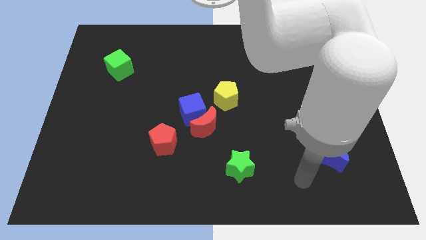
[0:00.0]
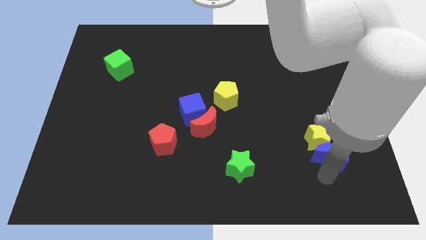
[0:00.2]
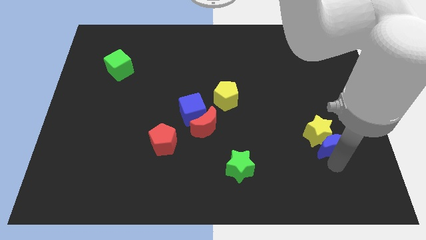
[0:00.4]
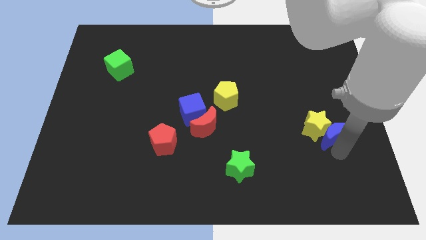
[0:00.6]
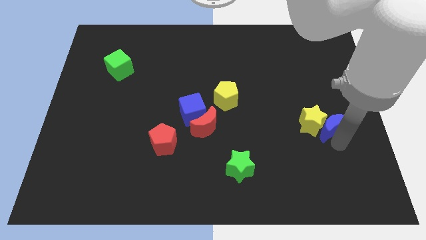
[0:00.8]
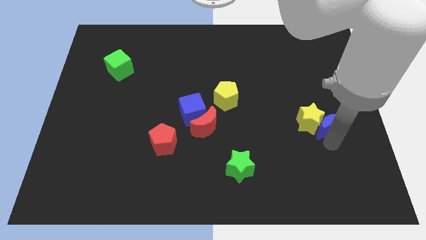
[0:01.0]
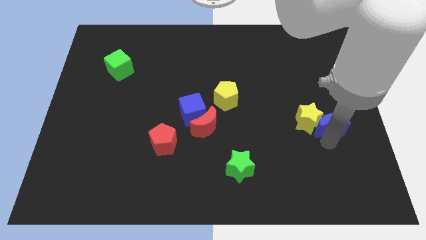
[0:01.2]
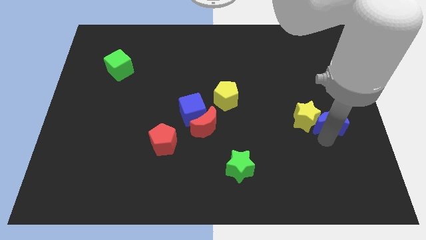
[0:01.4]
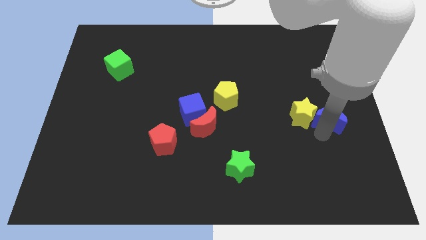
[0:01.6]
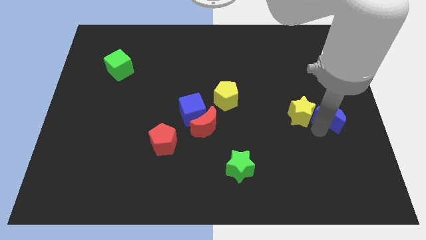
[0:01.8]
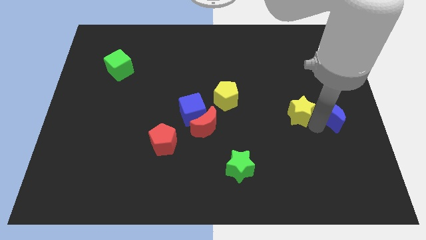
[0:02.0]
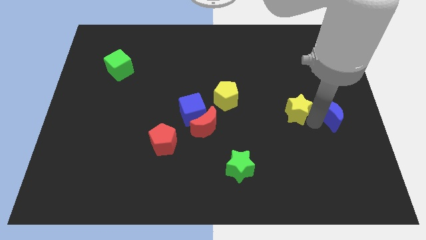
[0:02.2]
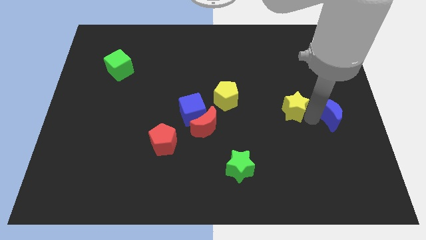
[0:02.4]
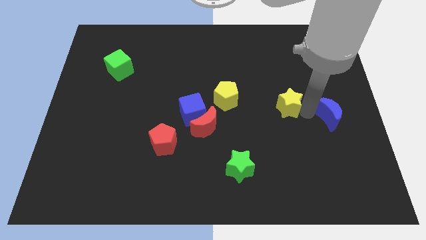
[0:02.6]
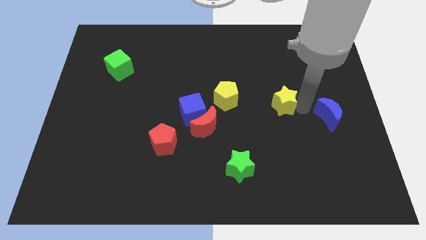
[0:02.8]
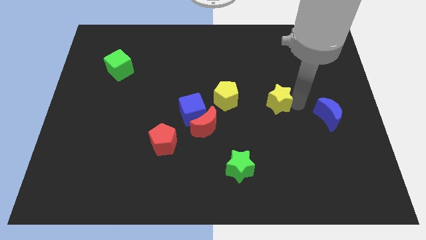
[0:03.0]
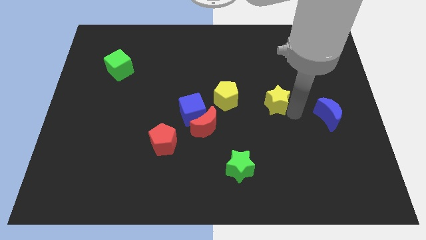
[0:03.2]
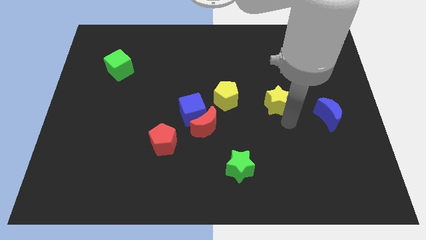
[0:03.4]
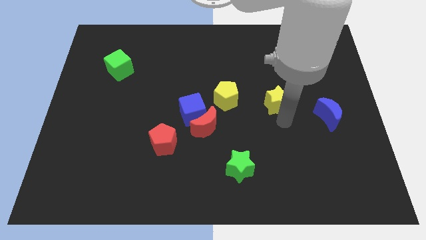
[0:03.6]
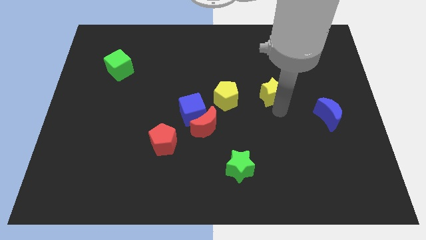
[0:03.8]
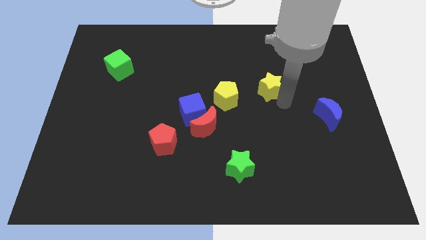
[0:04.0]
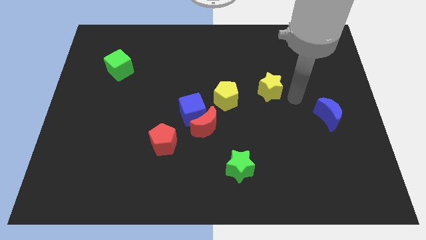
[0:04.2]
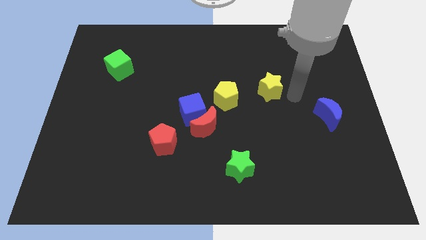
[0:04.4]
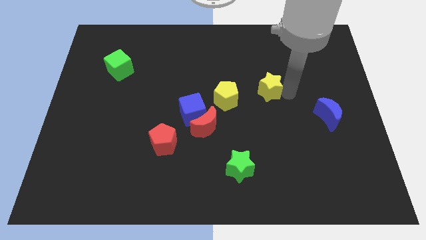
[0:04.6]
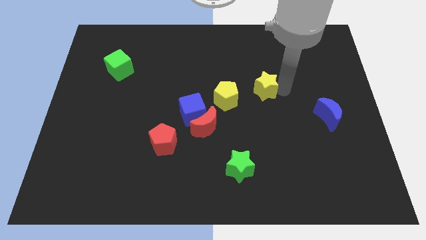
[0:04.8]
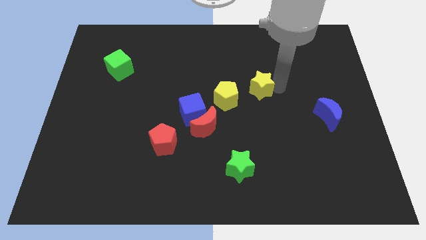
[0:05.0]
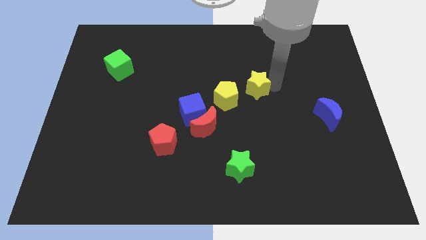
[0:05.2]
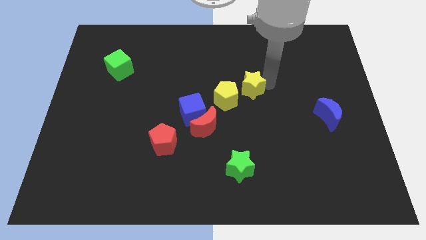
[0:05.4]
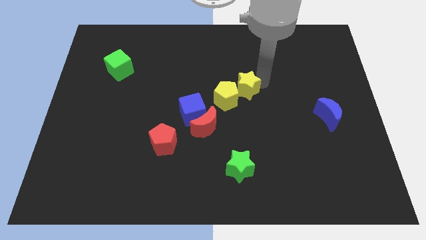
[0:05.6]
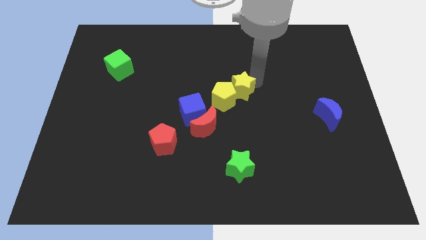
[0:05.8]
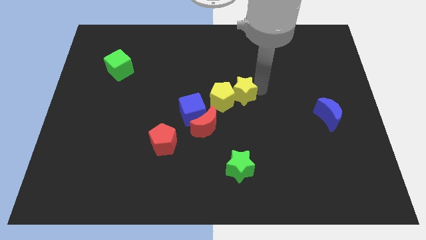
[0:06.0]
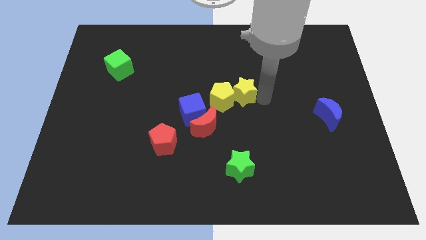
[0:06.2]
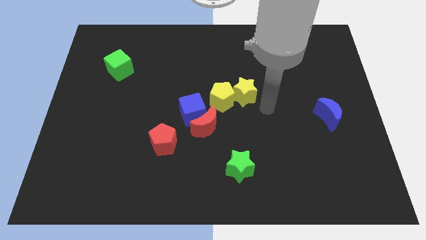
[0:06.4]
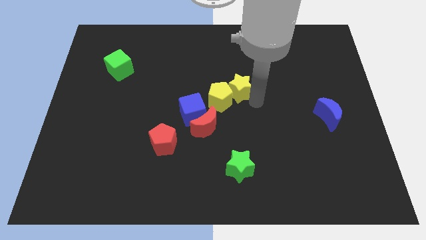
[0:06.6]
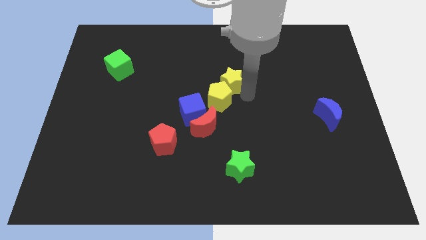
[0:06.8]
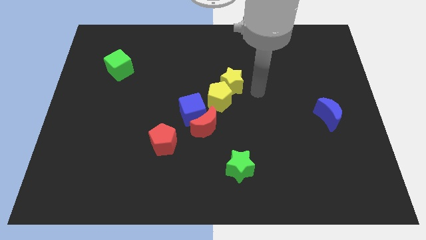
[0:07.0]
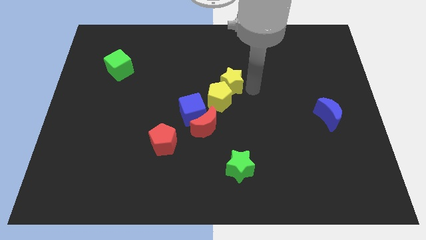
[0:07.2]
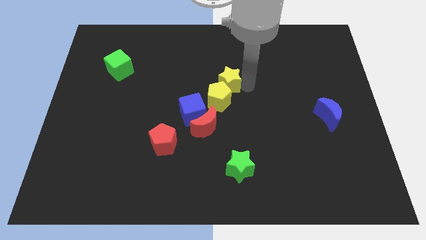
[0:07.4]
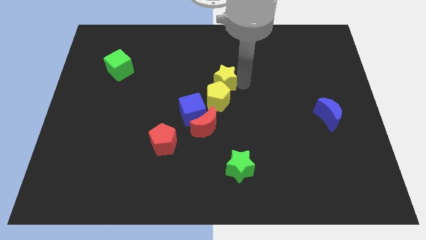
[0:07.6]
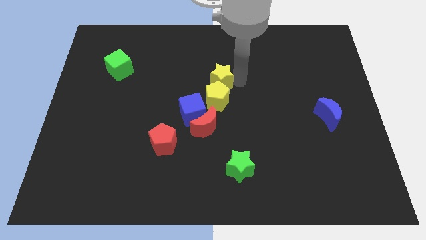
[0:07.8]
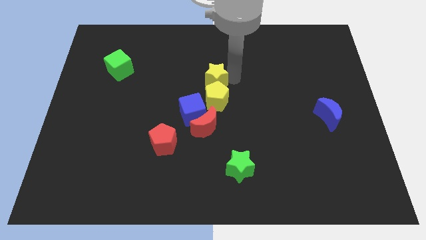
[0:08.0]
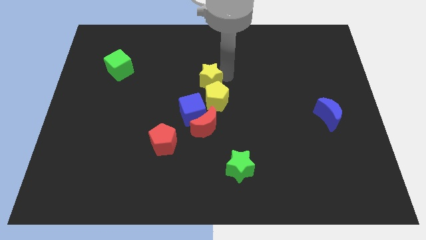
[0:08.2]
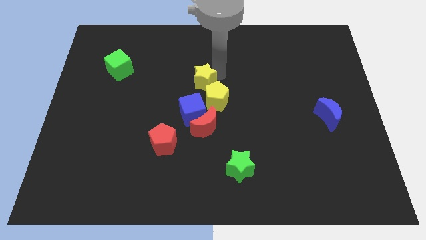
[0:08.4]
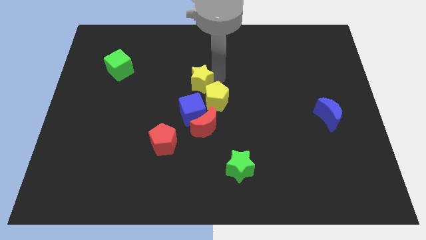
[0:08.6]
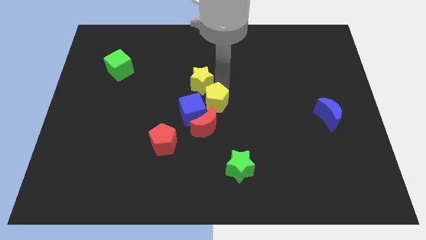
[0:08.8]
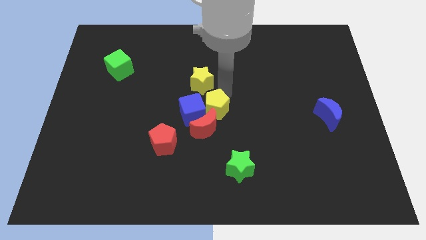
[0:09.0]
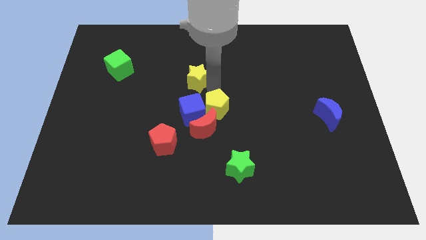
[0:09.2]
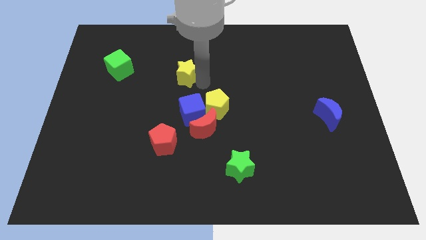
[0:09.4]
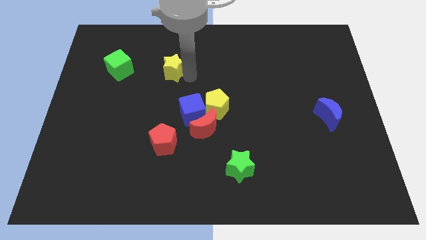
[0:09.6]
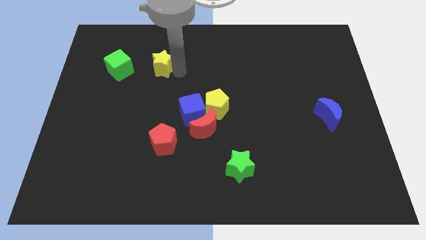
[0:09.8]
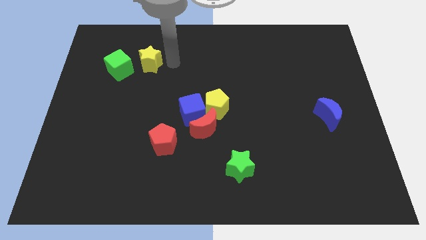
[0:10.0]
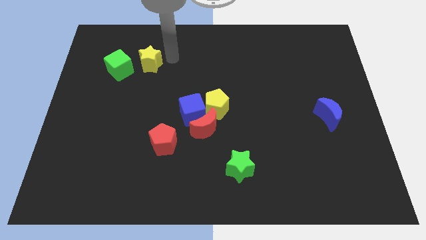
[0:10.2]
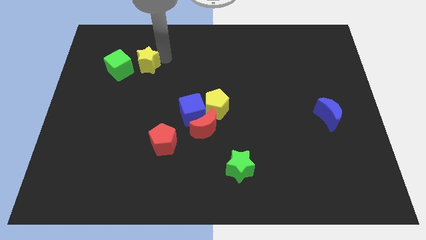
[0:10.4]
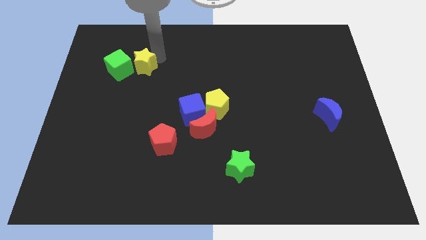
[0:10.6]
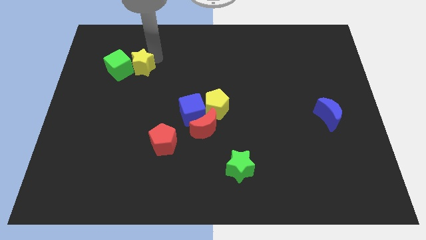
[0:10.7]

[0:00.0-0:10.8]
move the yellow star next to the green cube

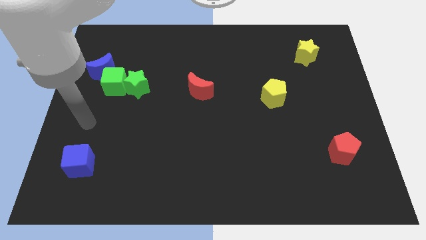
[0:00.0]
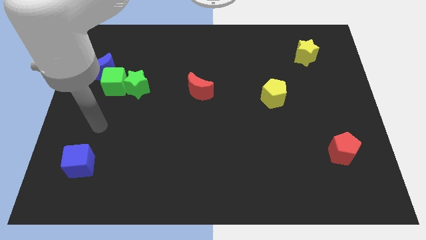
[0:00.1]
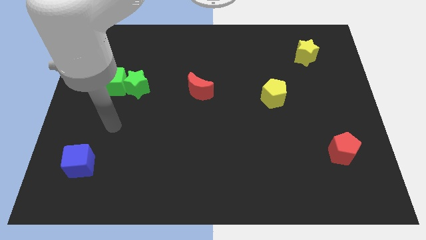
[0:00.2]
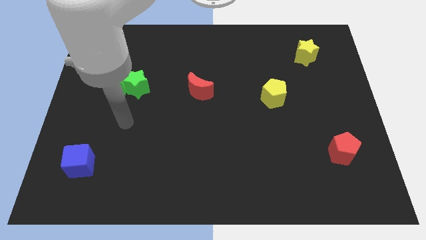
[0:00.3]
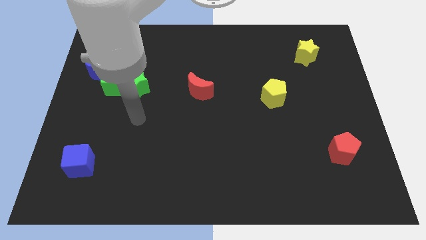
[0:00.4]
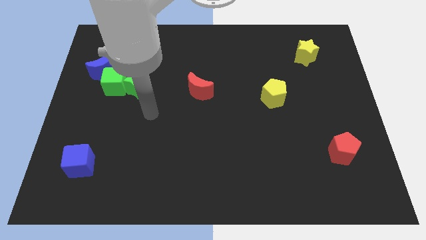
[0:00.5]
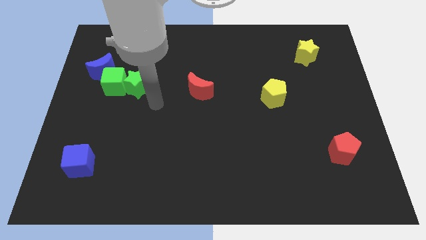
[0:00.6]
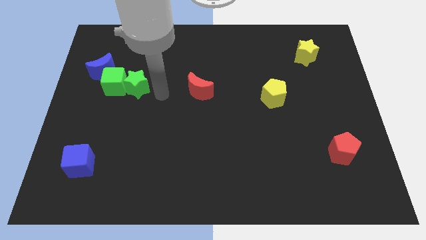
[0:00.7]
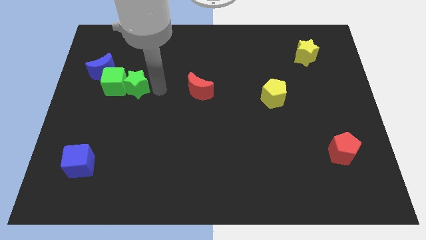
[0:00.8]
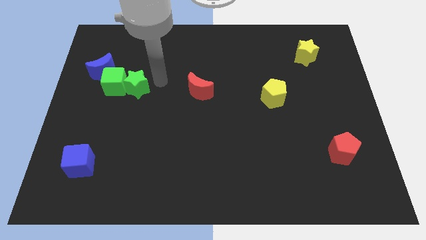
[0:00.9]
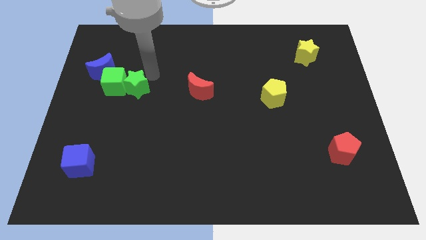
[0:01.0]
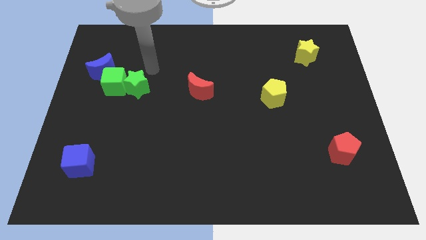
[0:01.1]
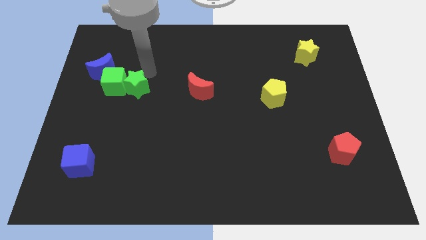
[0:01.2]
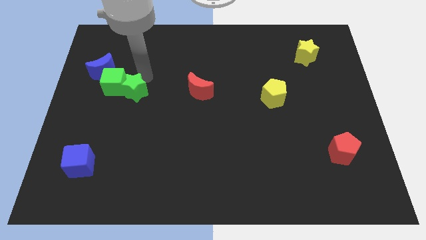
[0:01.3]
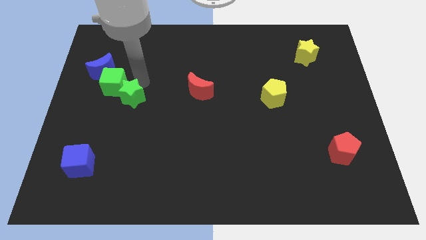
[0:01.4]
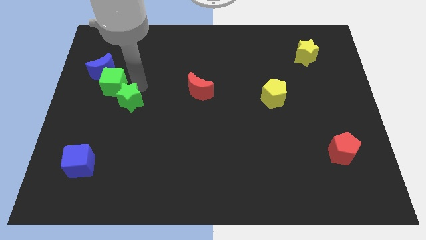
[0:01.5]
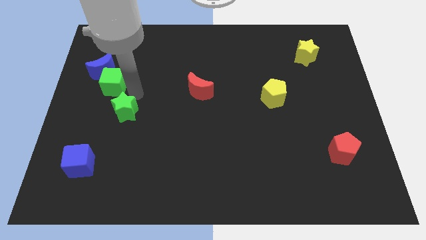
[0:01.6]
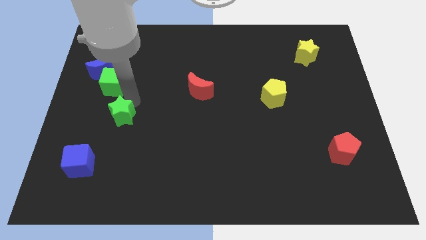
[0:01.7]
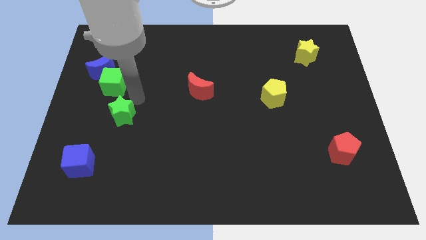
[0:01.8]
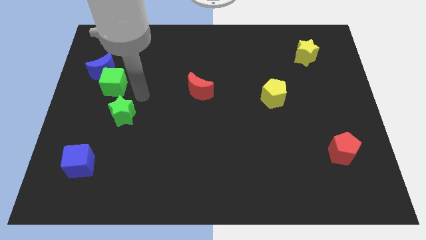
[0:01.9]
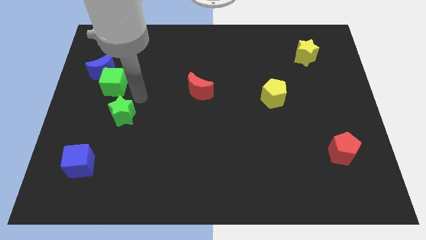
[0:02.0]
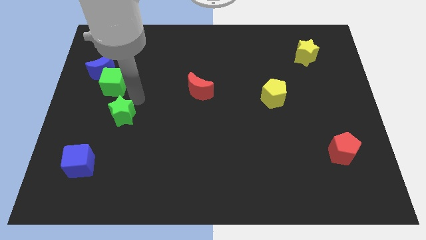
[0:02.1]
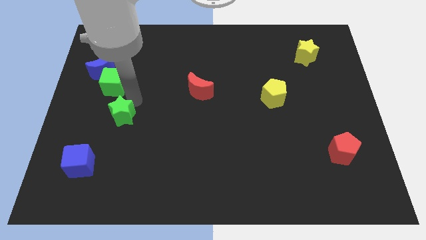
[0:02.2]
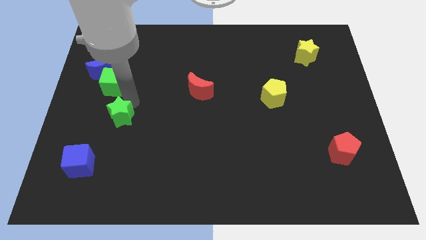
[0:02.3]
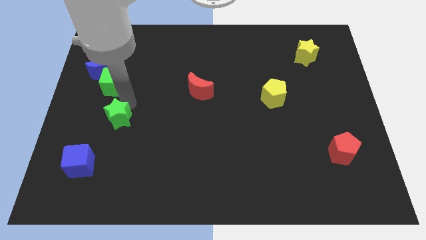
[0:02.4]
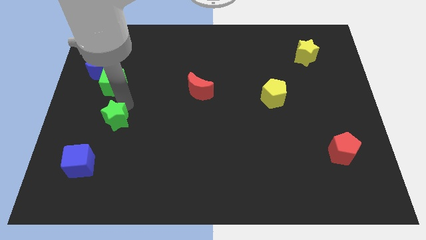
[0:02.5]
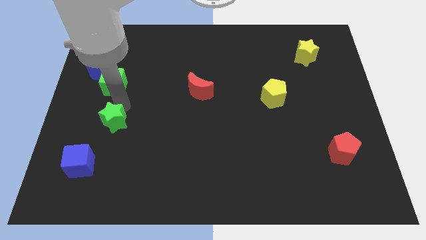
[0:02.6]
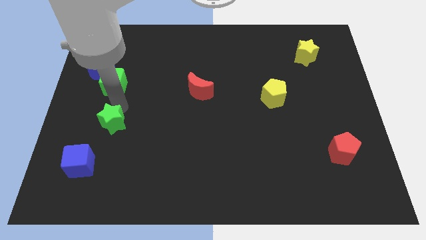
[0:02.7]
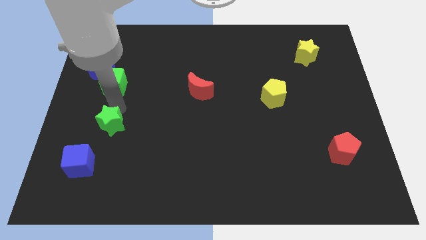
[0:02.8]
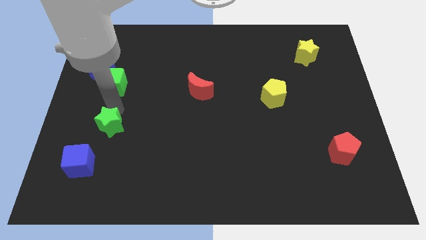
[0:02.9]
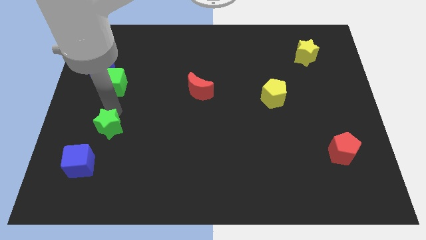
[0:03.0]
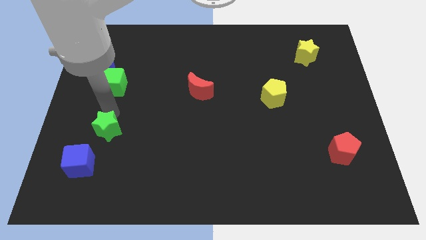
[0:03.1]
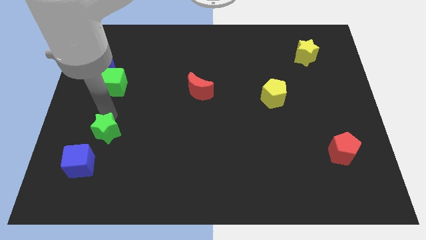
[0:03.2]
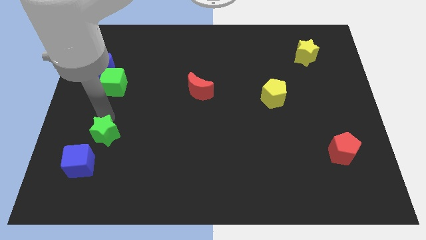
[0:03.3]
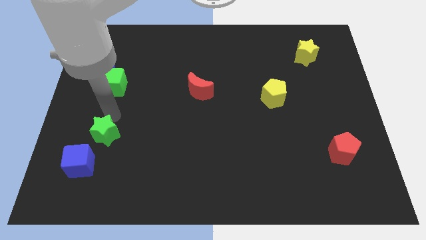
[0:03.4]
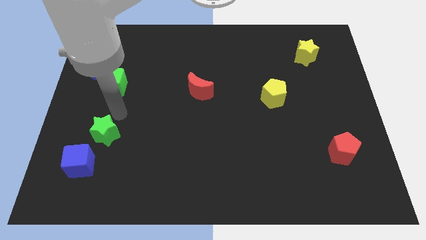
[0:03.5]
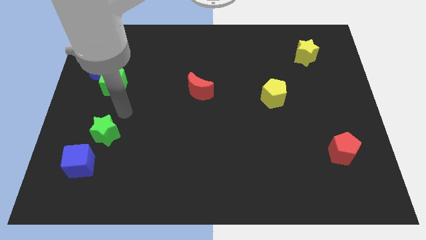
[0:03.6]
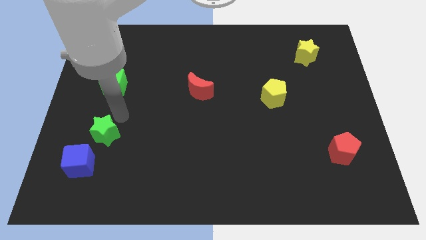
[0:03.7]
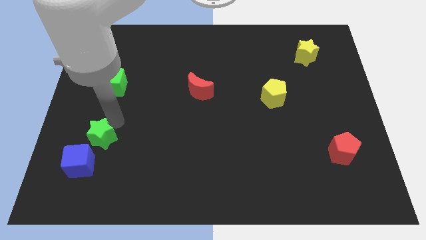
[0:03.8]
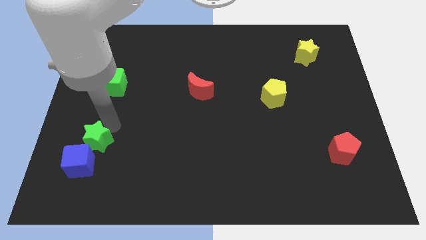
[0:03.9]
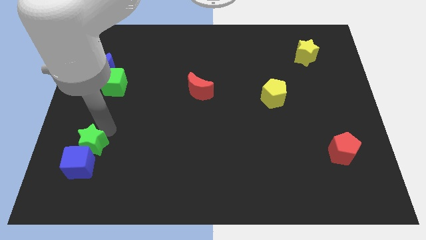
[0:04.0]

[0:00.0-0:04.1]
slide the green star towards the blue cube
